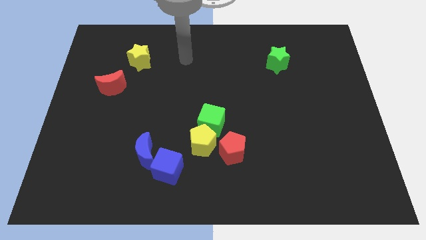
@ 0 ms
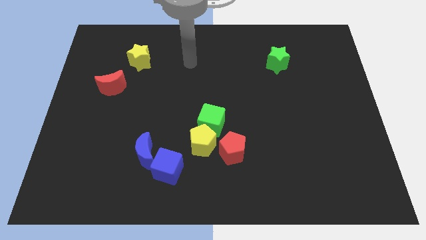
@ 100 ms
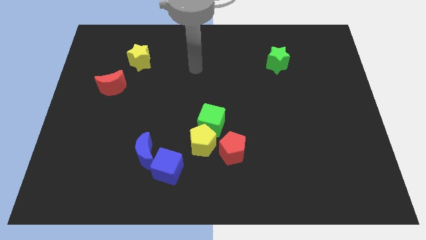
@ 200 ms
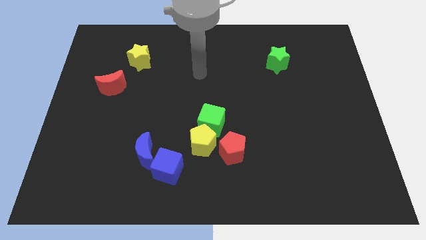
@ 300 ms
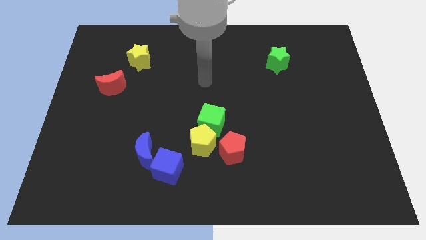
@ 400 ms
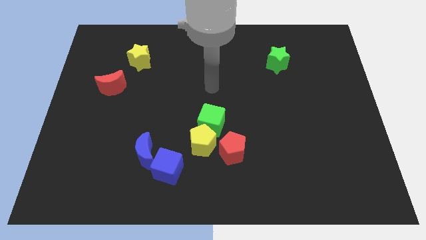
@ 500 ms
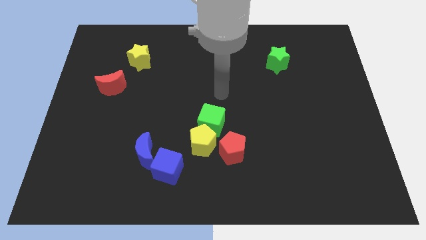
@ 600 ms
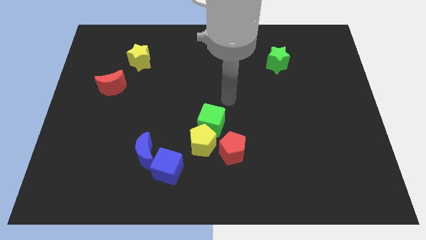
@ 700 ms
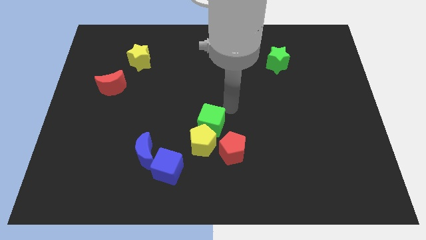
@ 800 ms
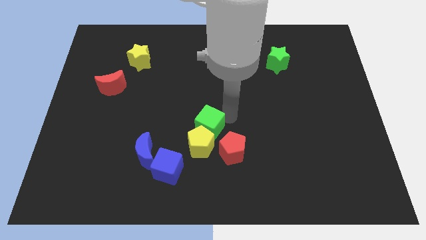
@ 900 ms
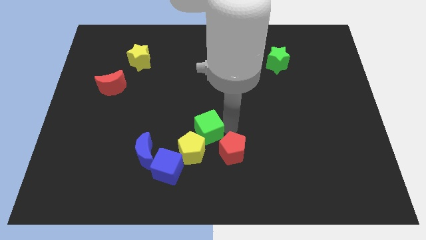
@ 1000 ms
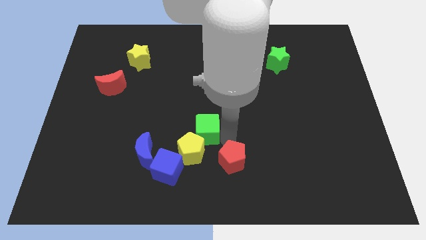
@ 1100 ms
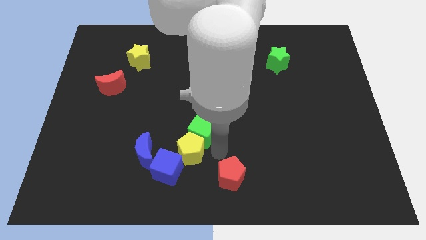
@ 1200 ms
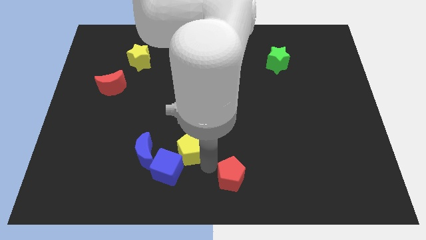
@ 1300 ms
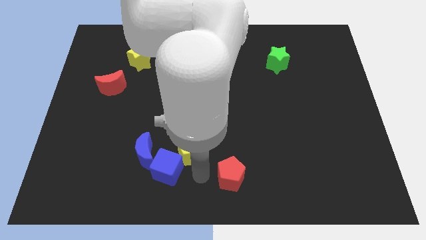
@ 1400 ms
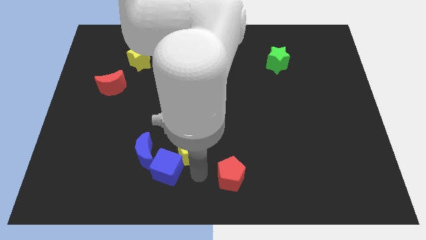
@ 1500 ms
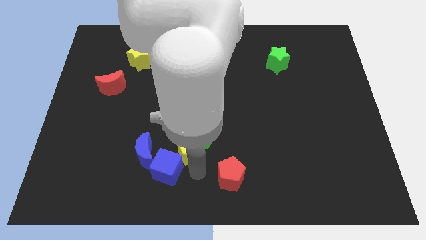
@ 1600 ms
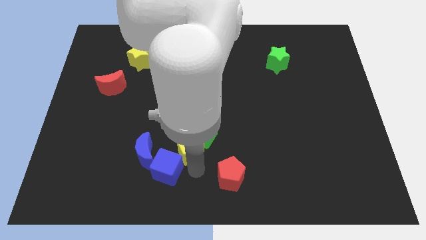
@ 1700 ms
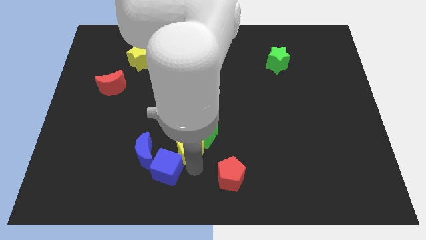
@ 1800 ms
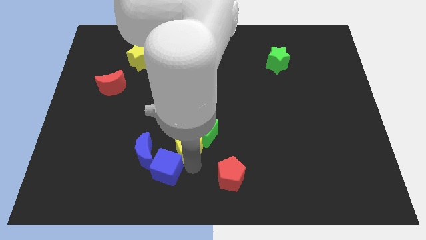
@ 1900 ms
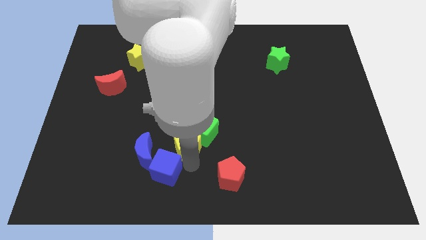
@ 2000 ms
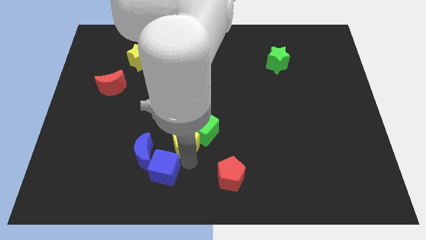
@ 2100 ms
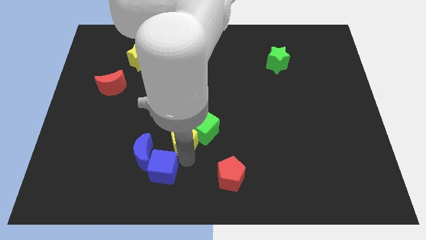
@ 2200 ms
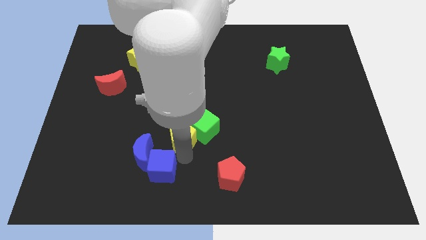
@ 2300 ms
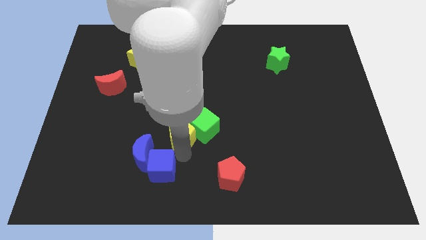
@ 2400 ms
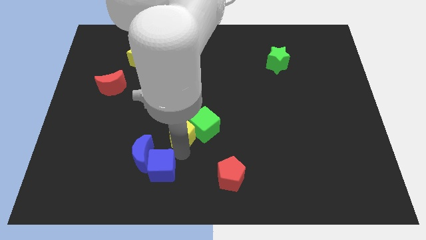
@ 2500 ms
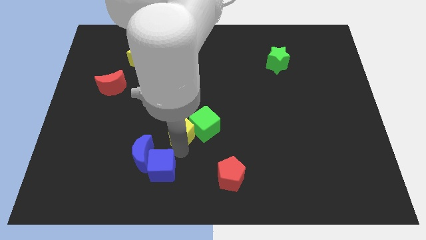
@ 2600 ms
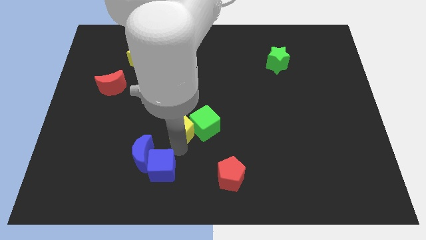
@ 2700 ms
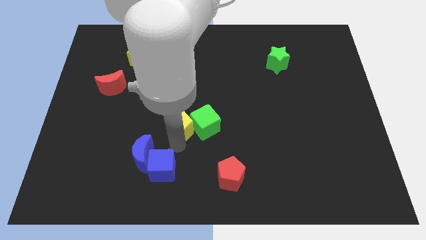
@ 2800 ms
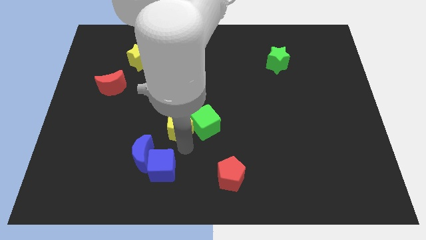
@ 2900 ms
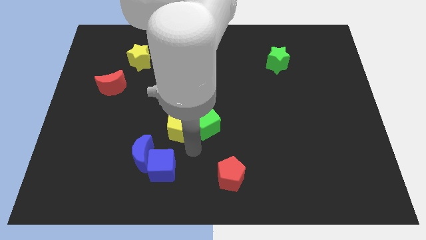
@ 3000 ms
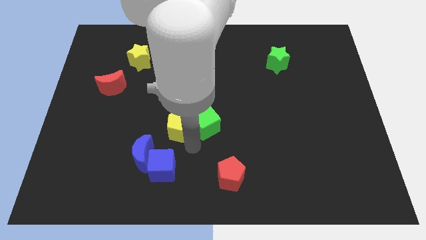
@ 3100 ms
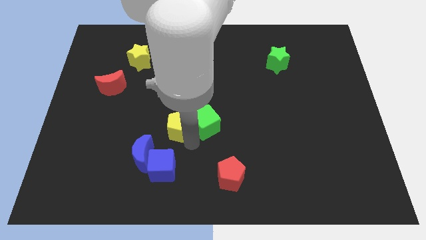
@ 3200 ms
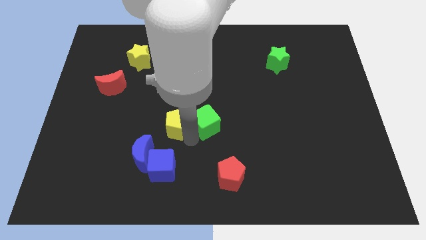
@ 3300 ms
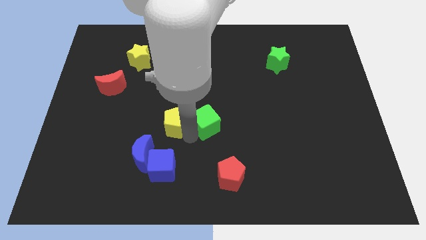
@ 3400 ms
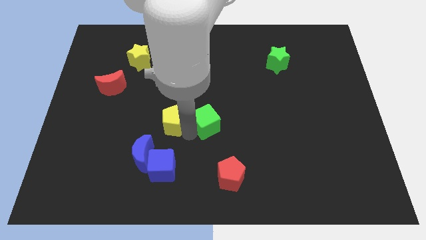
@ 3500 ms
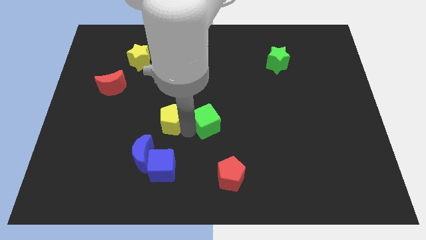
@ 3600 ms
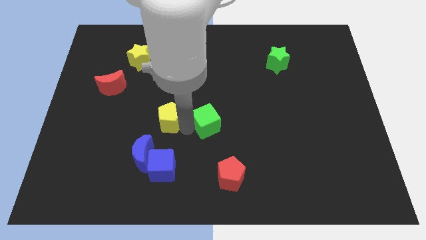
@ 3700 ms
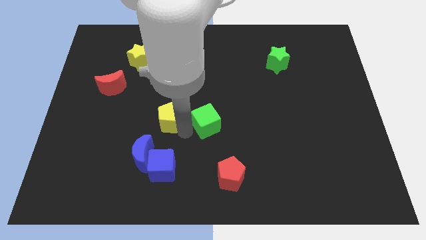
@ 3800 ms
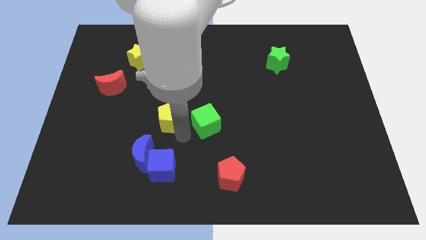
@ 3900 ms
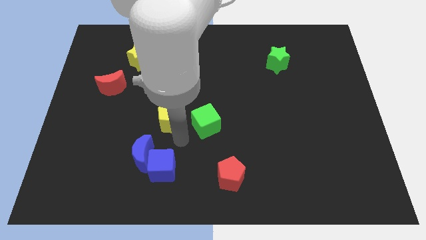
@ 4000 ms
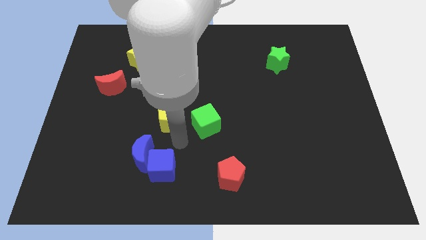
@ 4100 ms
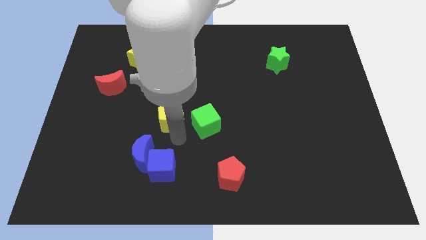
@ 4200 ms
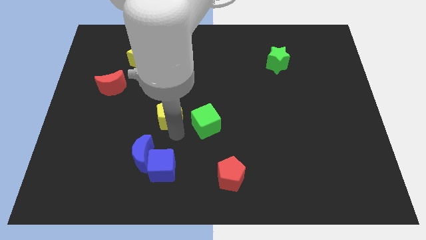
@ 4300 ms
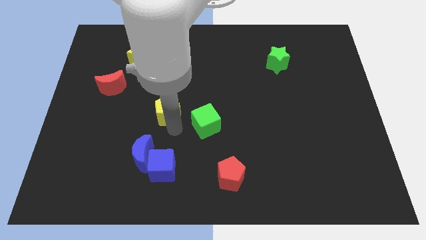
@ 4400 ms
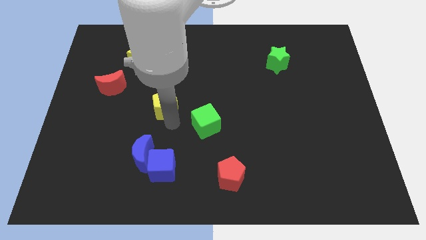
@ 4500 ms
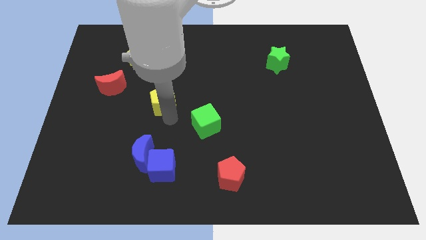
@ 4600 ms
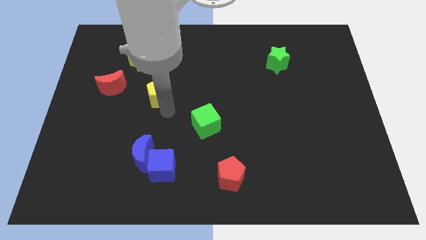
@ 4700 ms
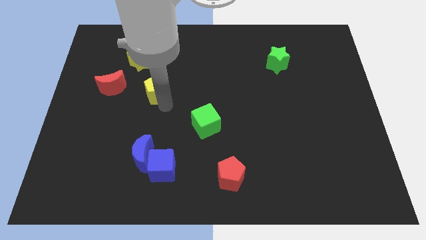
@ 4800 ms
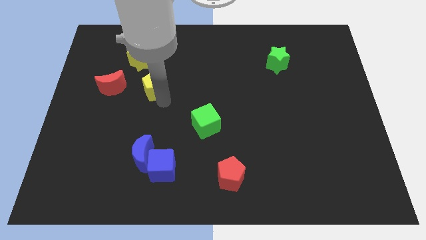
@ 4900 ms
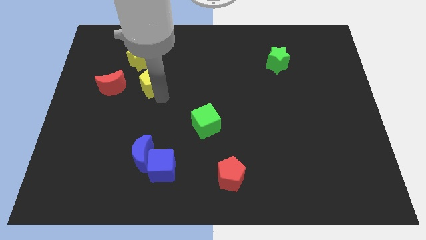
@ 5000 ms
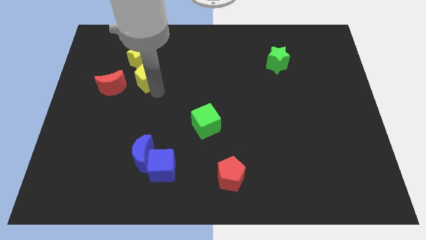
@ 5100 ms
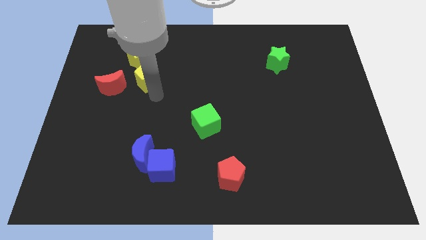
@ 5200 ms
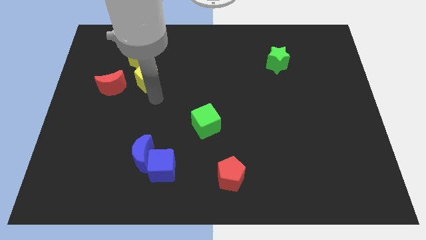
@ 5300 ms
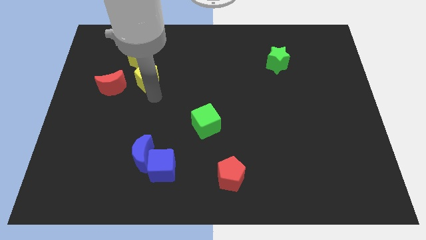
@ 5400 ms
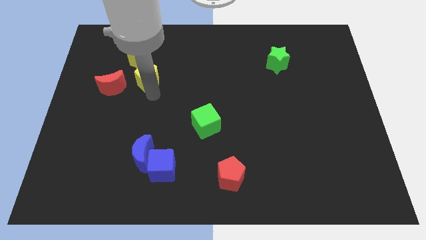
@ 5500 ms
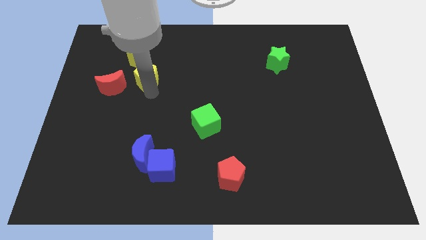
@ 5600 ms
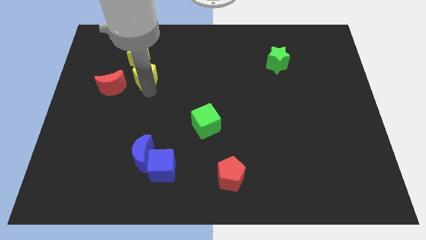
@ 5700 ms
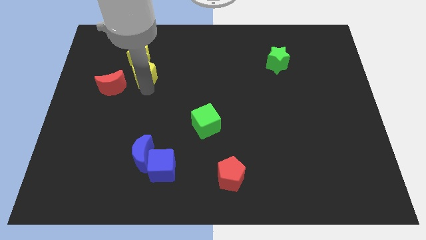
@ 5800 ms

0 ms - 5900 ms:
push the yellow pentagon towards the yellow star

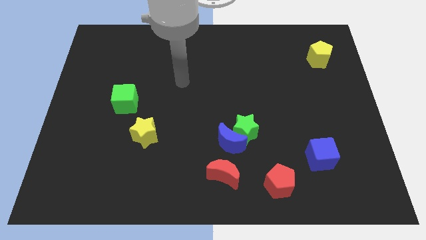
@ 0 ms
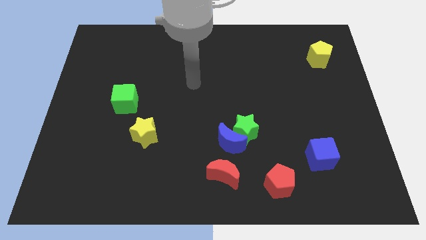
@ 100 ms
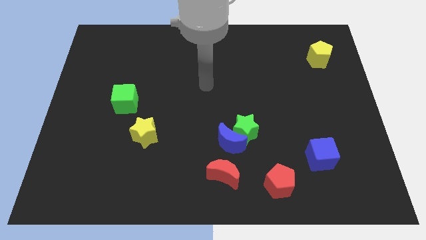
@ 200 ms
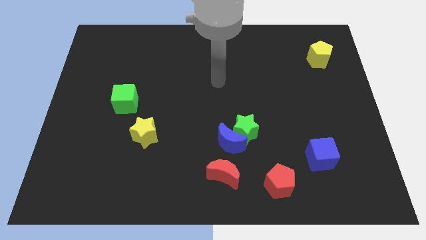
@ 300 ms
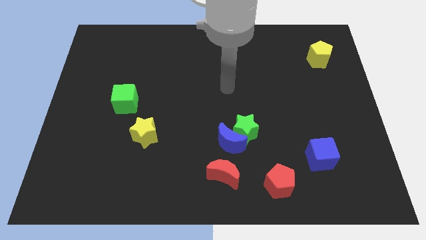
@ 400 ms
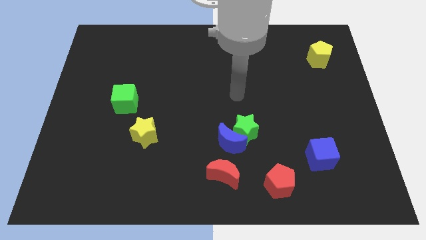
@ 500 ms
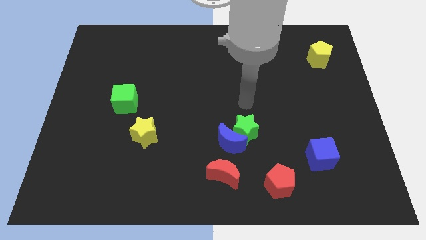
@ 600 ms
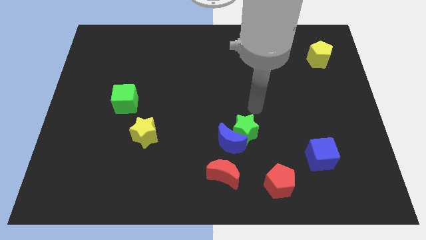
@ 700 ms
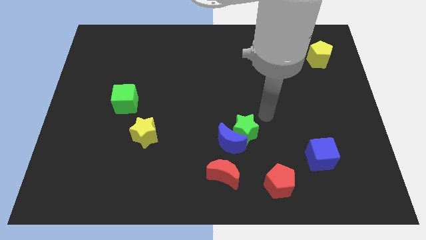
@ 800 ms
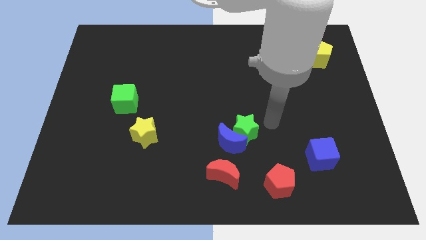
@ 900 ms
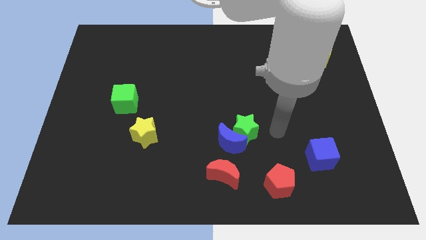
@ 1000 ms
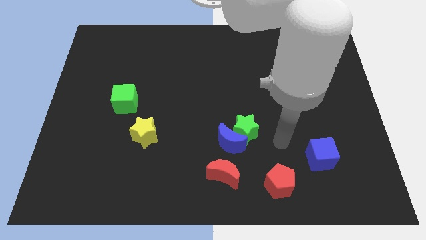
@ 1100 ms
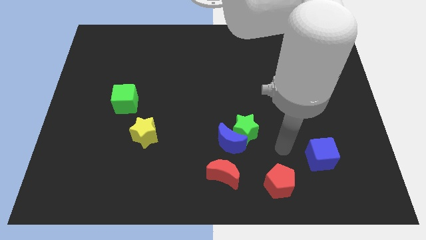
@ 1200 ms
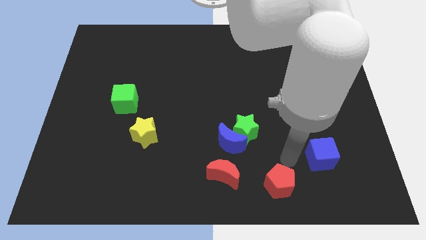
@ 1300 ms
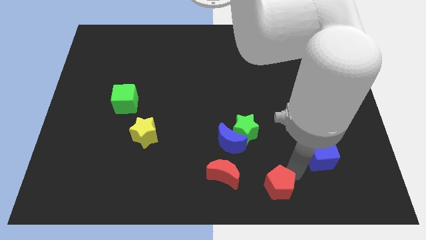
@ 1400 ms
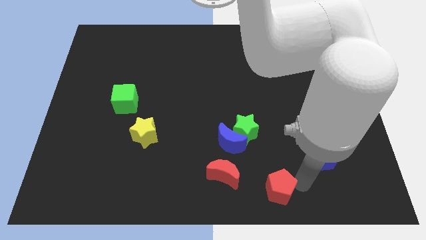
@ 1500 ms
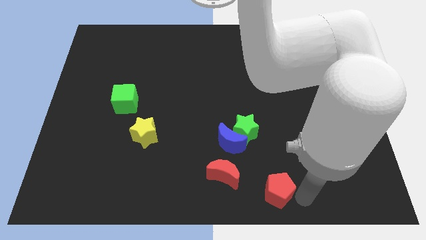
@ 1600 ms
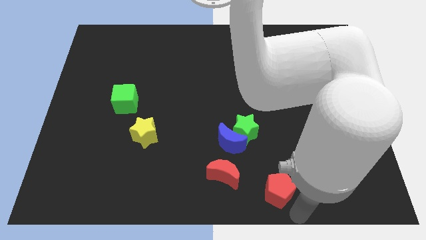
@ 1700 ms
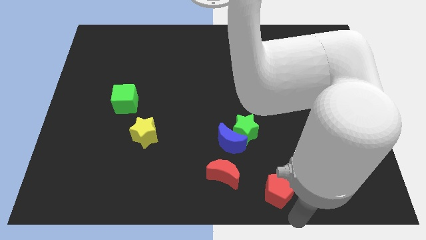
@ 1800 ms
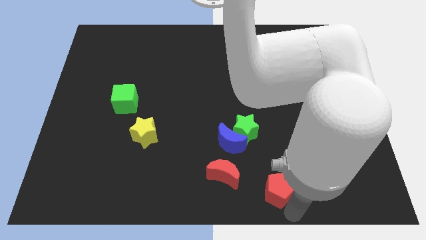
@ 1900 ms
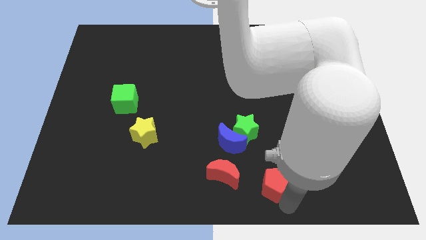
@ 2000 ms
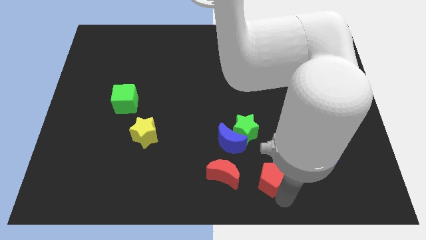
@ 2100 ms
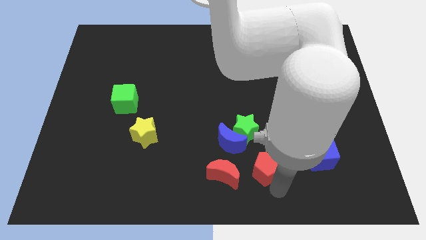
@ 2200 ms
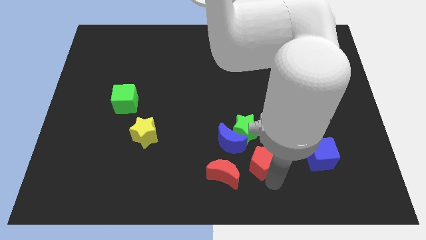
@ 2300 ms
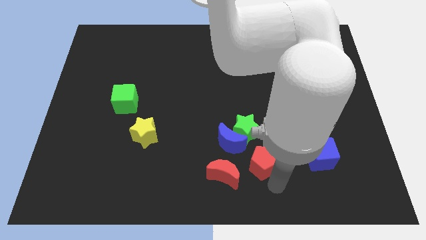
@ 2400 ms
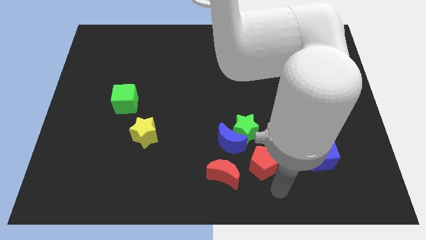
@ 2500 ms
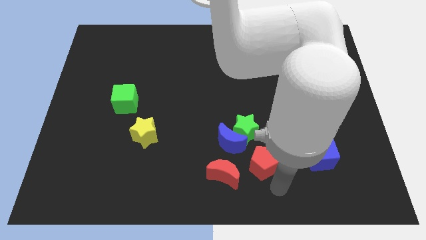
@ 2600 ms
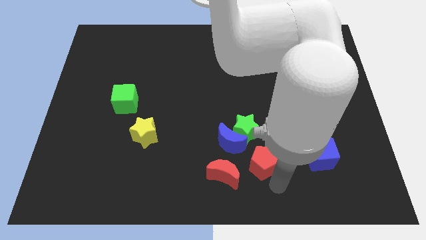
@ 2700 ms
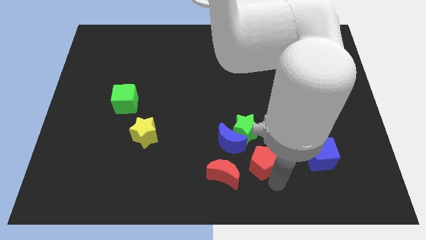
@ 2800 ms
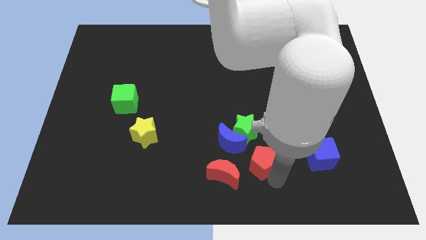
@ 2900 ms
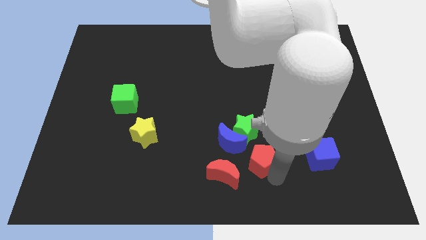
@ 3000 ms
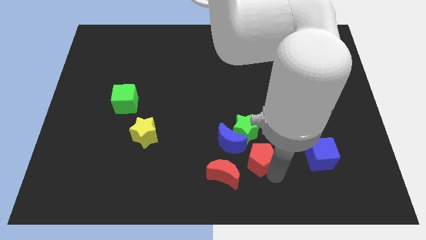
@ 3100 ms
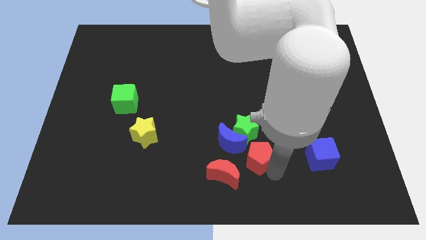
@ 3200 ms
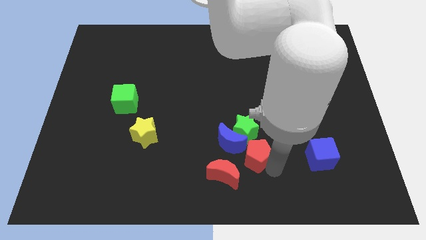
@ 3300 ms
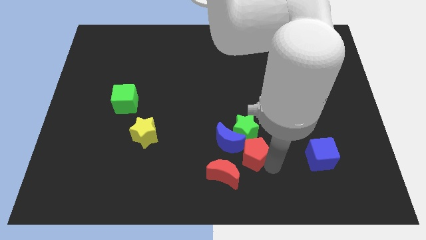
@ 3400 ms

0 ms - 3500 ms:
put the red pentagon to the green star
